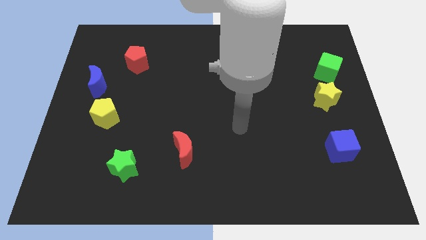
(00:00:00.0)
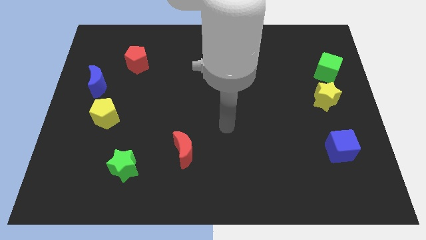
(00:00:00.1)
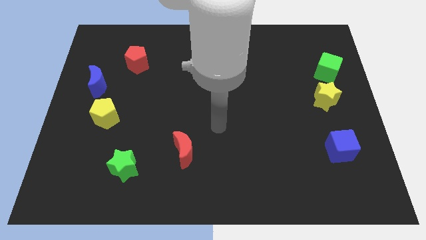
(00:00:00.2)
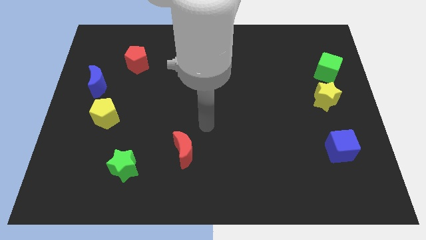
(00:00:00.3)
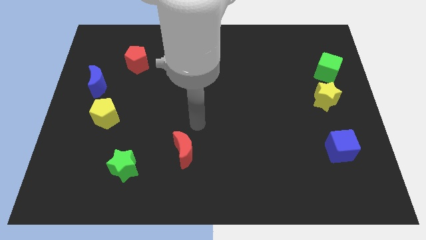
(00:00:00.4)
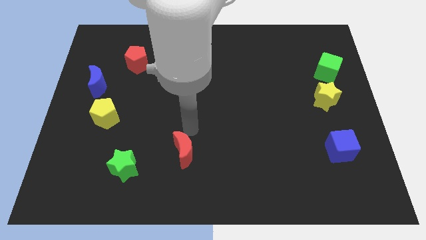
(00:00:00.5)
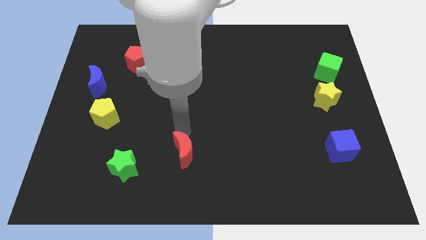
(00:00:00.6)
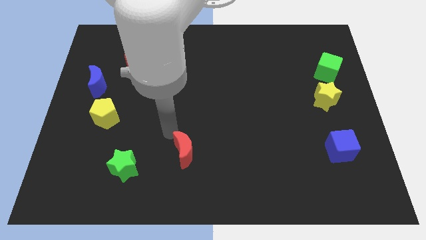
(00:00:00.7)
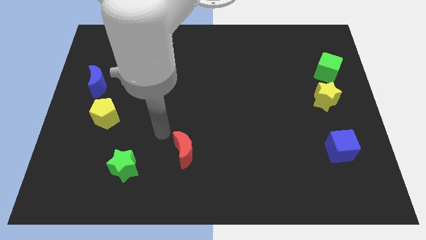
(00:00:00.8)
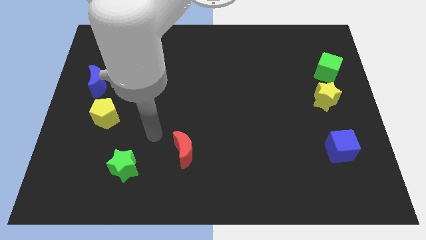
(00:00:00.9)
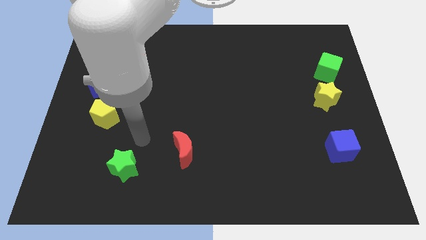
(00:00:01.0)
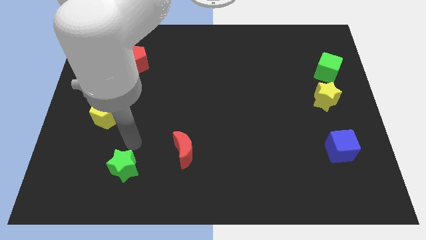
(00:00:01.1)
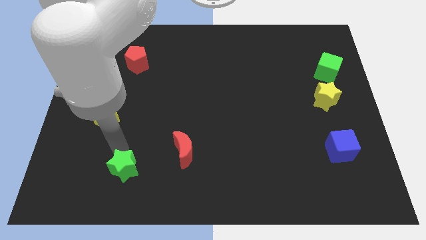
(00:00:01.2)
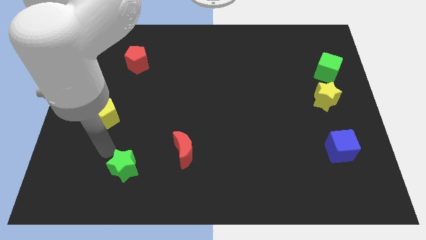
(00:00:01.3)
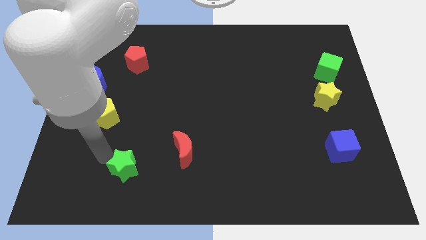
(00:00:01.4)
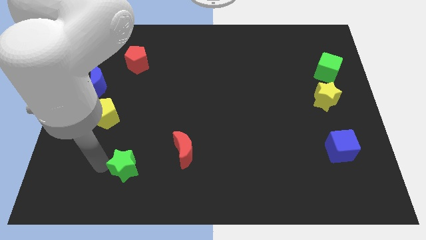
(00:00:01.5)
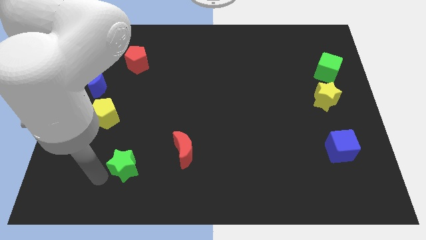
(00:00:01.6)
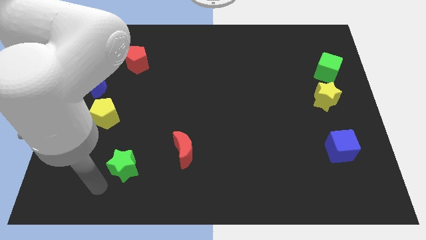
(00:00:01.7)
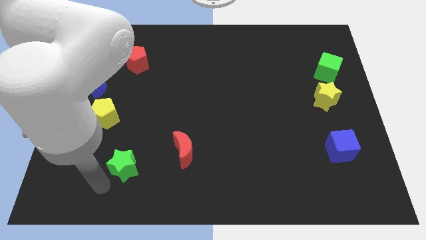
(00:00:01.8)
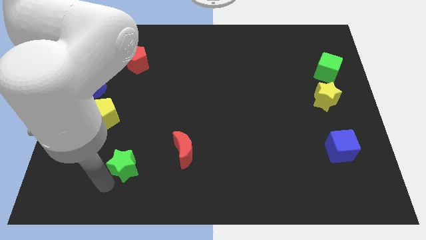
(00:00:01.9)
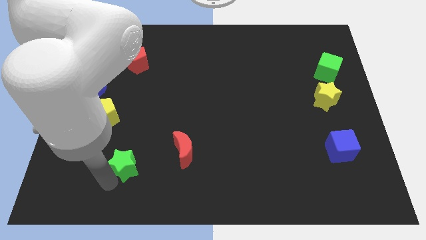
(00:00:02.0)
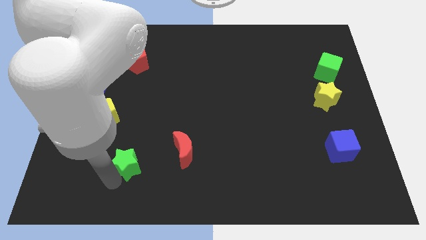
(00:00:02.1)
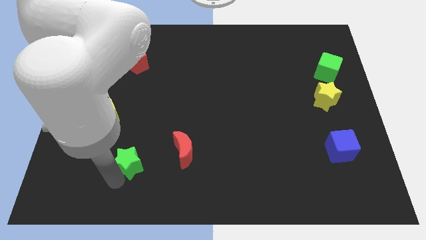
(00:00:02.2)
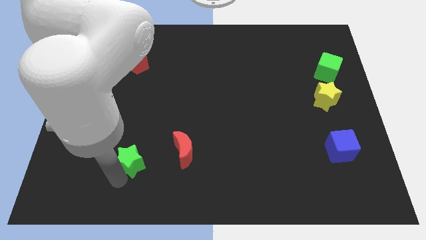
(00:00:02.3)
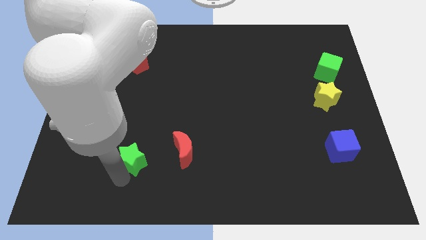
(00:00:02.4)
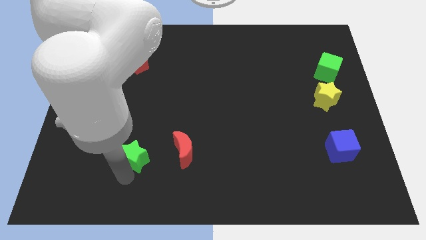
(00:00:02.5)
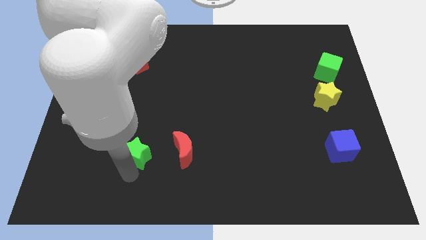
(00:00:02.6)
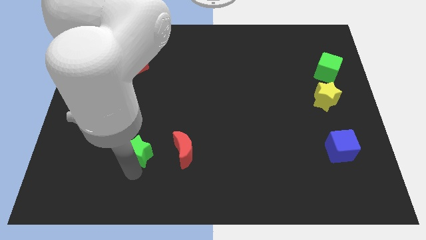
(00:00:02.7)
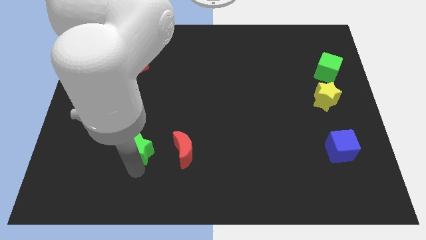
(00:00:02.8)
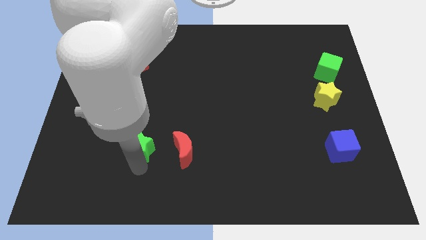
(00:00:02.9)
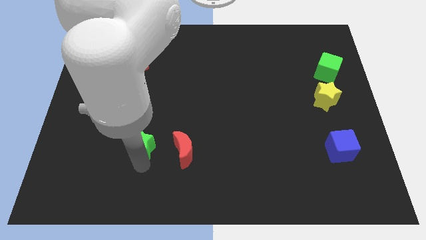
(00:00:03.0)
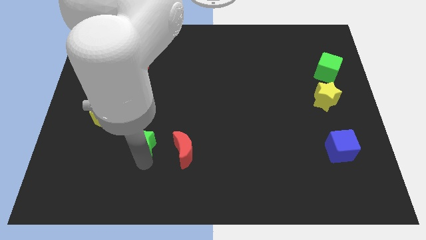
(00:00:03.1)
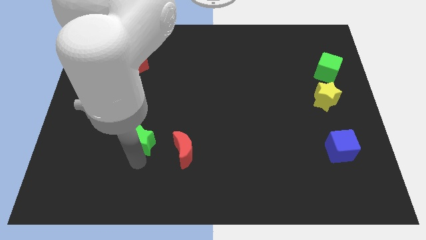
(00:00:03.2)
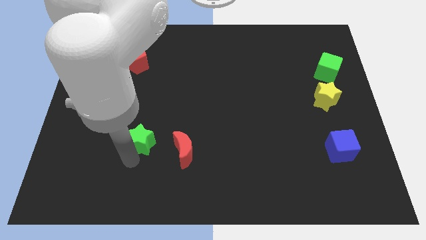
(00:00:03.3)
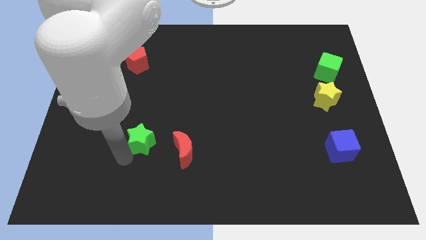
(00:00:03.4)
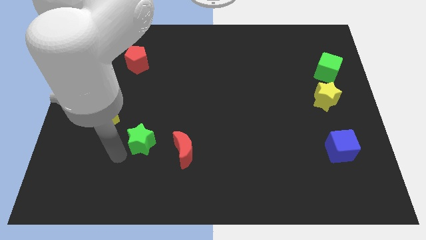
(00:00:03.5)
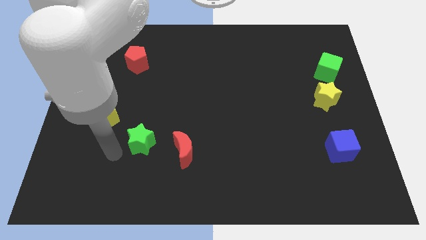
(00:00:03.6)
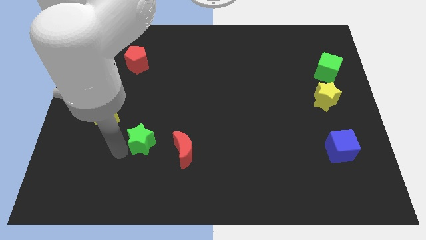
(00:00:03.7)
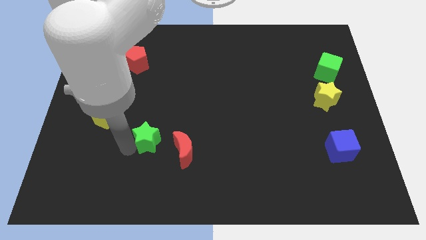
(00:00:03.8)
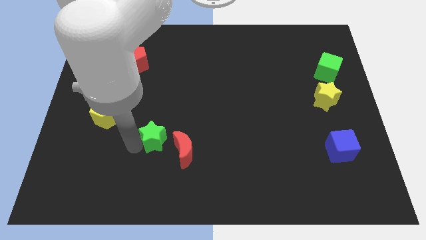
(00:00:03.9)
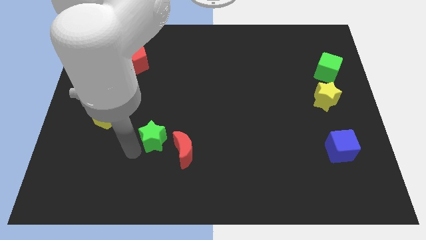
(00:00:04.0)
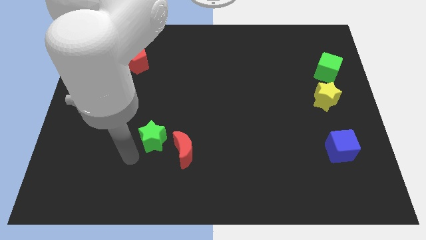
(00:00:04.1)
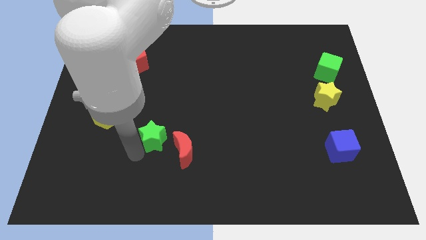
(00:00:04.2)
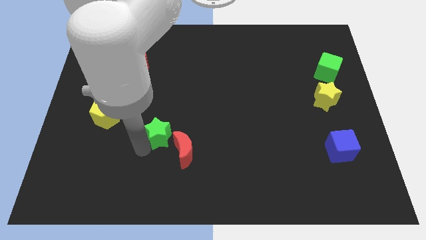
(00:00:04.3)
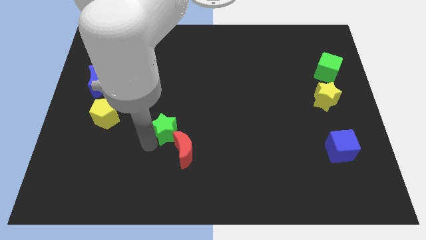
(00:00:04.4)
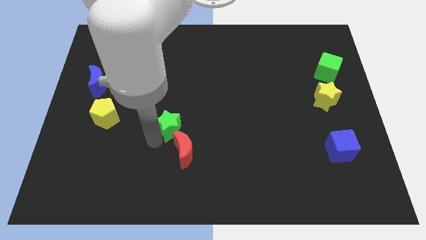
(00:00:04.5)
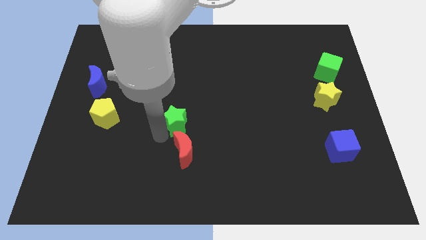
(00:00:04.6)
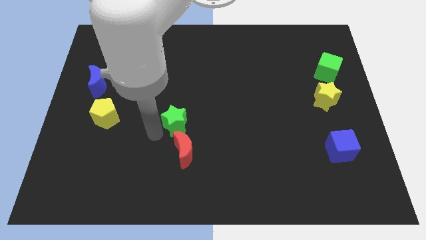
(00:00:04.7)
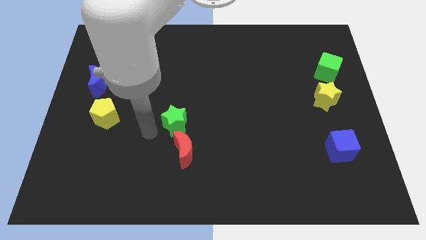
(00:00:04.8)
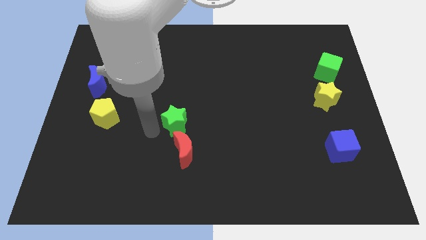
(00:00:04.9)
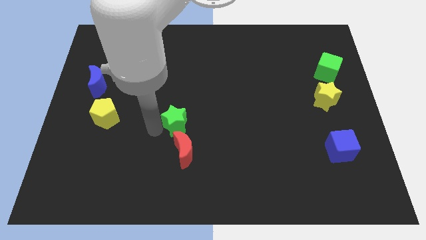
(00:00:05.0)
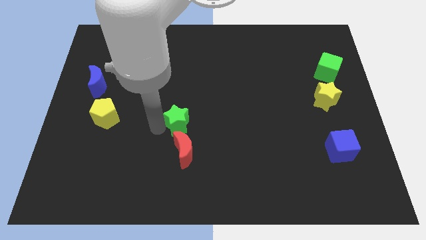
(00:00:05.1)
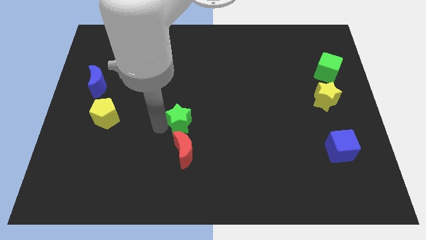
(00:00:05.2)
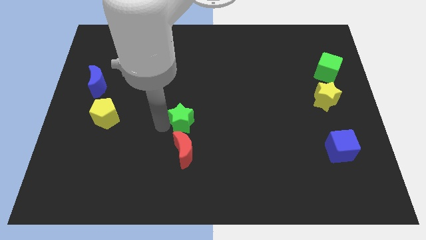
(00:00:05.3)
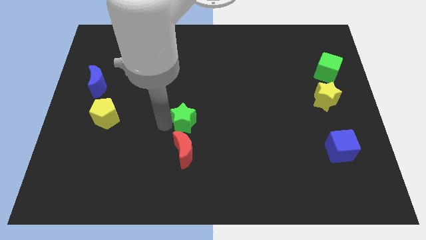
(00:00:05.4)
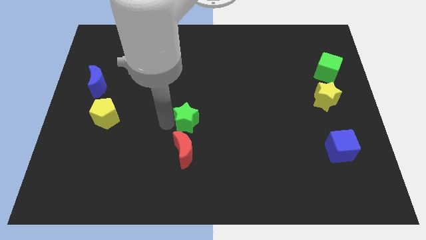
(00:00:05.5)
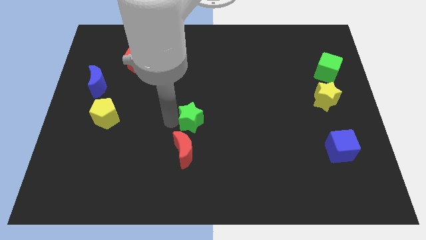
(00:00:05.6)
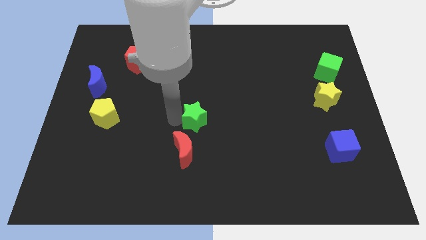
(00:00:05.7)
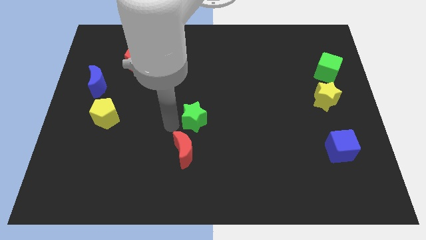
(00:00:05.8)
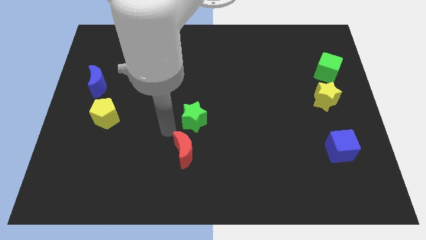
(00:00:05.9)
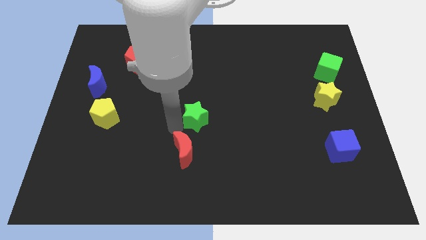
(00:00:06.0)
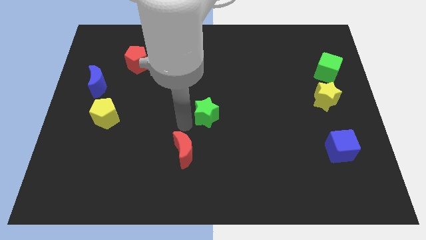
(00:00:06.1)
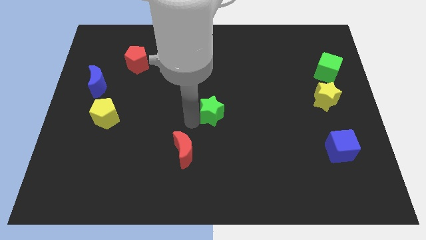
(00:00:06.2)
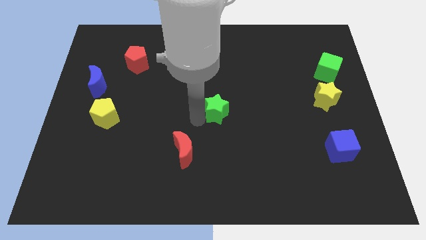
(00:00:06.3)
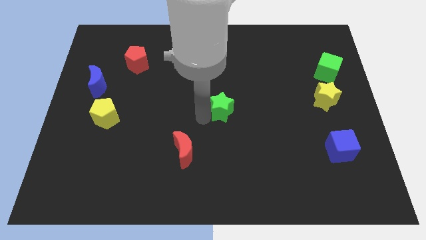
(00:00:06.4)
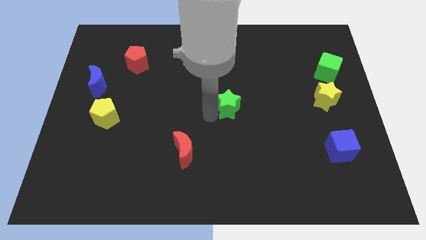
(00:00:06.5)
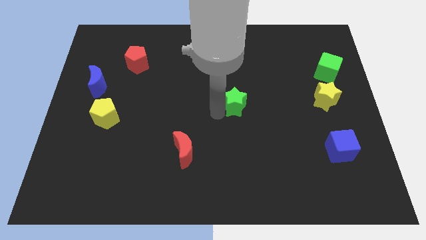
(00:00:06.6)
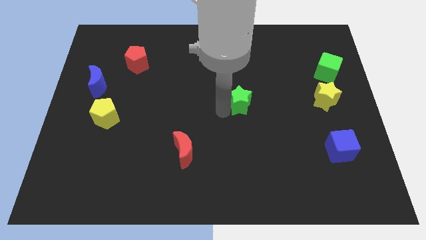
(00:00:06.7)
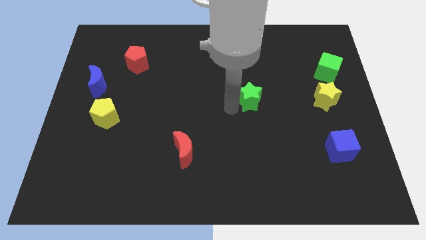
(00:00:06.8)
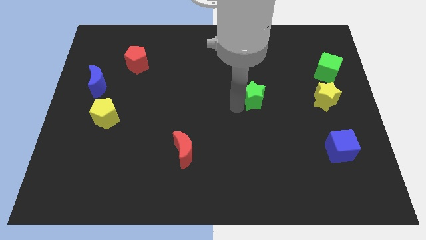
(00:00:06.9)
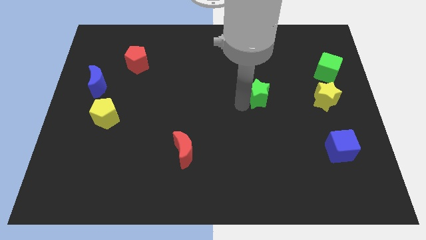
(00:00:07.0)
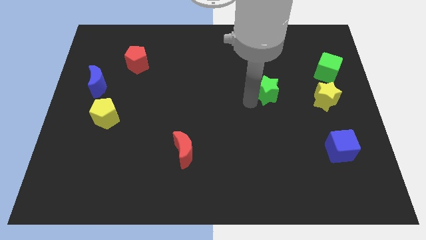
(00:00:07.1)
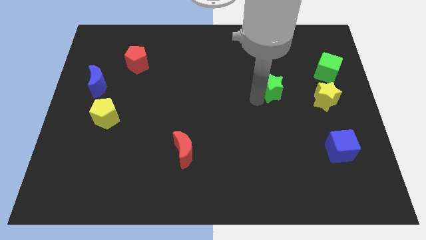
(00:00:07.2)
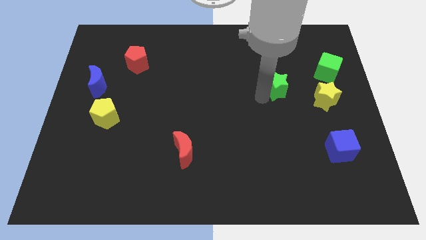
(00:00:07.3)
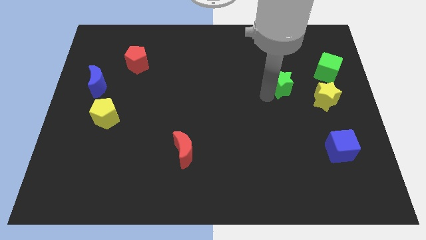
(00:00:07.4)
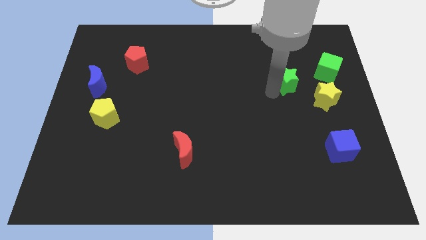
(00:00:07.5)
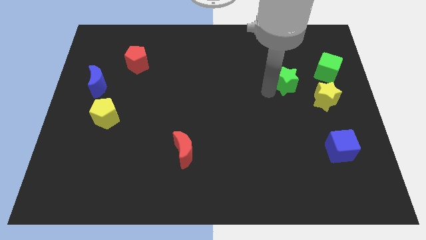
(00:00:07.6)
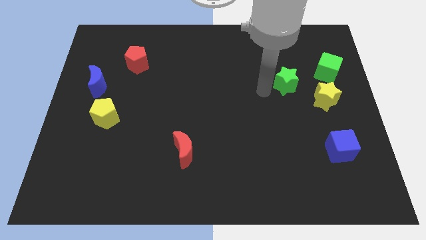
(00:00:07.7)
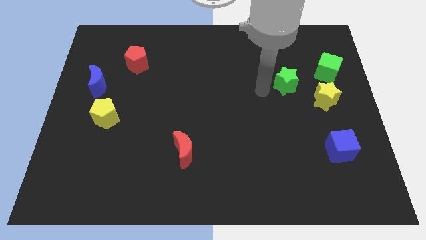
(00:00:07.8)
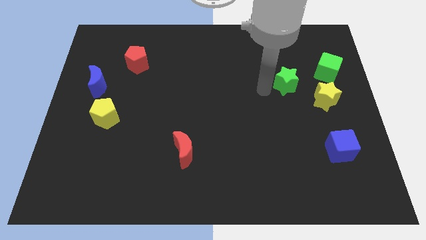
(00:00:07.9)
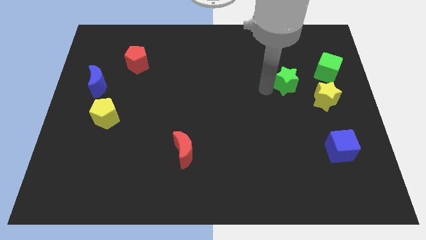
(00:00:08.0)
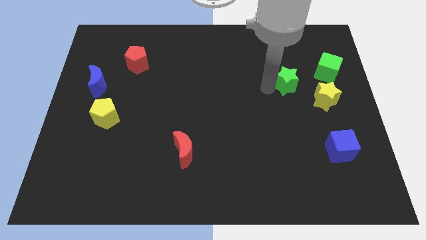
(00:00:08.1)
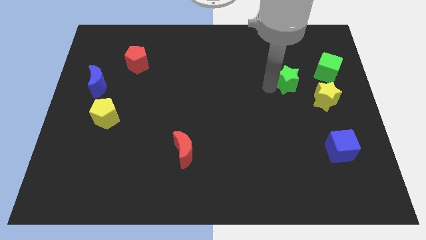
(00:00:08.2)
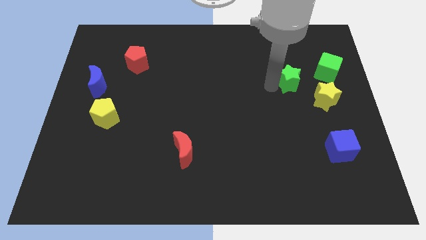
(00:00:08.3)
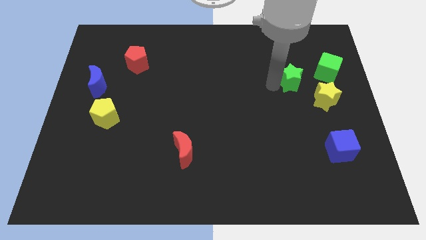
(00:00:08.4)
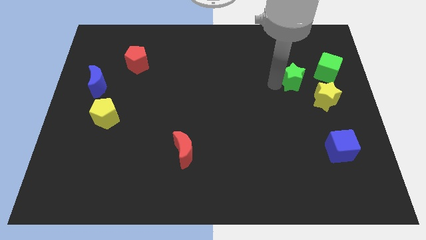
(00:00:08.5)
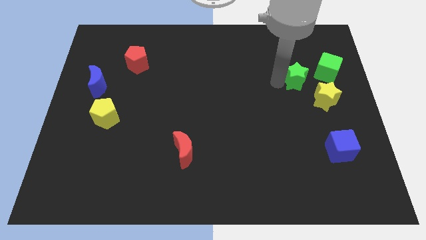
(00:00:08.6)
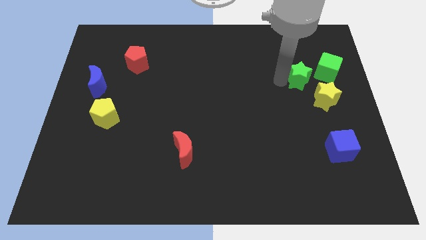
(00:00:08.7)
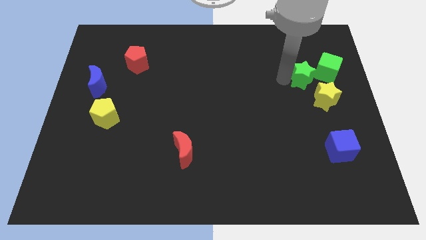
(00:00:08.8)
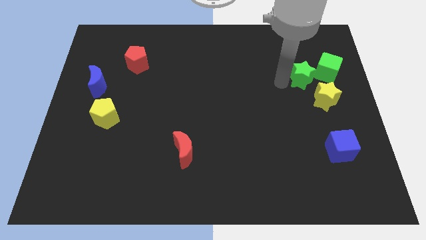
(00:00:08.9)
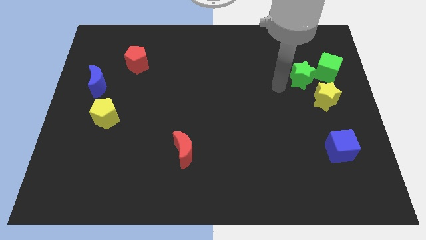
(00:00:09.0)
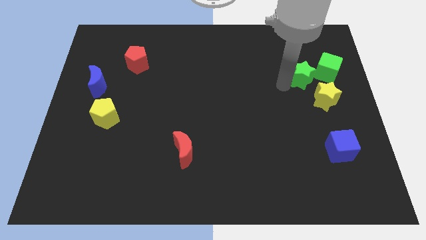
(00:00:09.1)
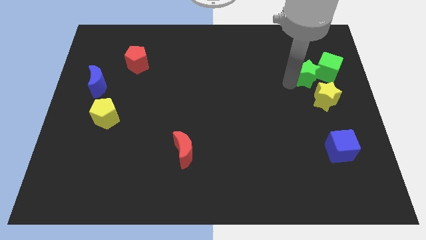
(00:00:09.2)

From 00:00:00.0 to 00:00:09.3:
put the green star next to the green cube
